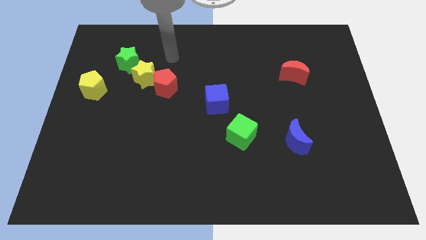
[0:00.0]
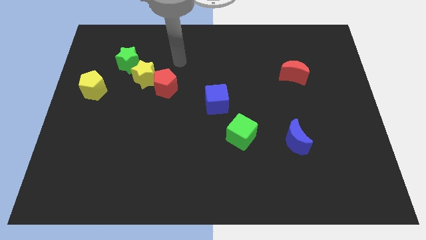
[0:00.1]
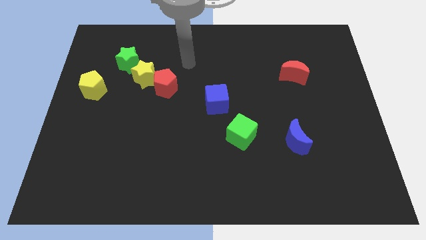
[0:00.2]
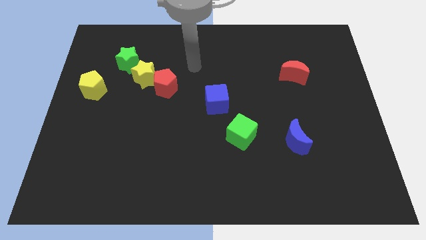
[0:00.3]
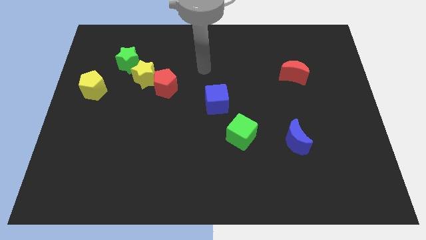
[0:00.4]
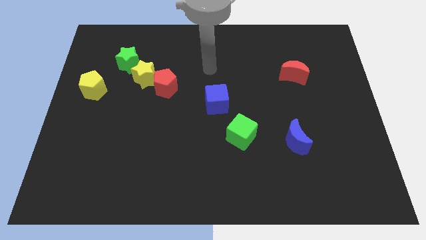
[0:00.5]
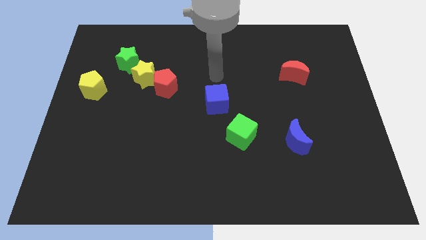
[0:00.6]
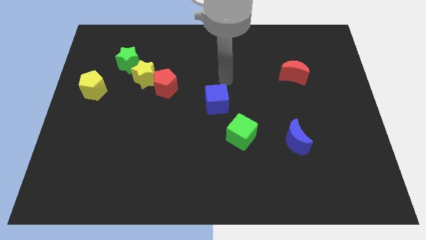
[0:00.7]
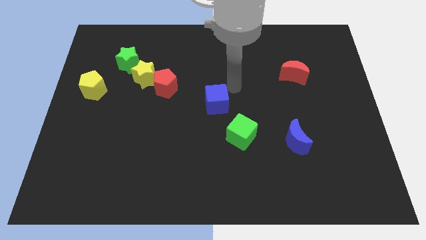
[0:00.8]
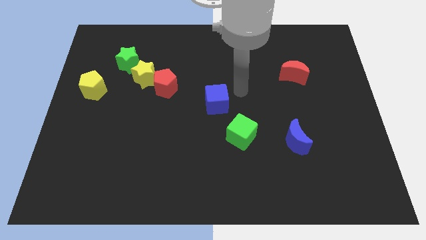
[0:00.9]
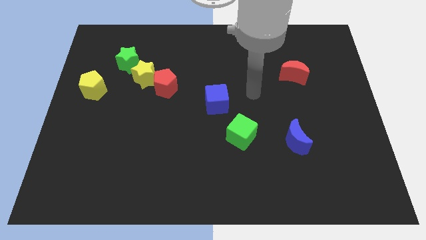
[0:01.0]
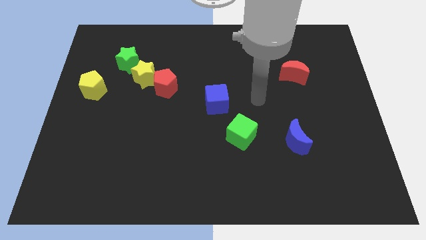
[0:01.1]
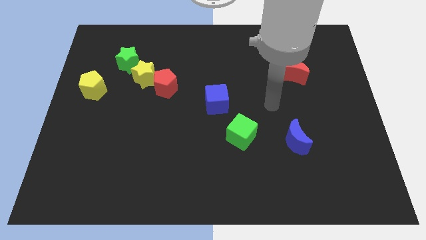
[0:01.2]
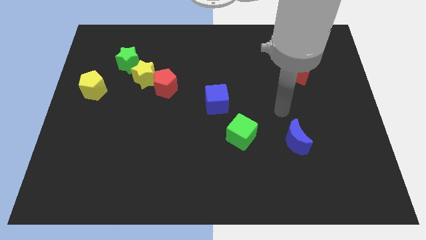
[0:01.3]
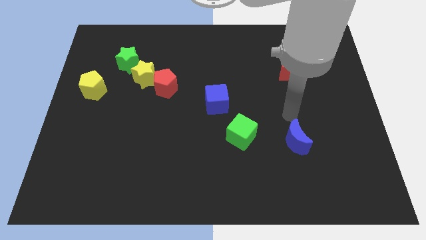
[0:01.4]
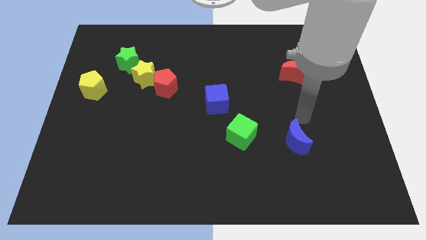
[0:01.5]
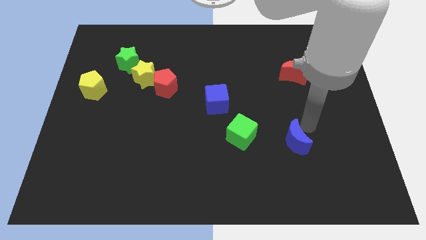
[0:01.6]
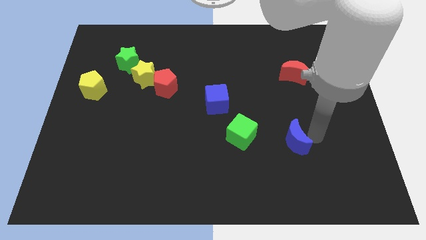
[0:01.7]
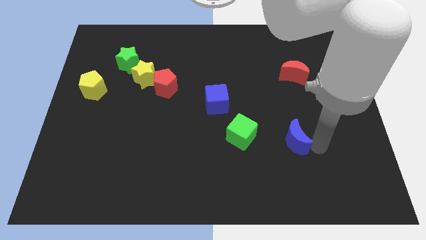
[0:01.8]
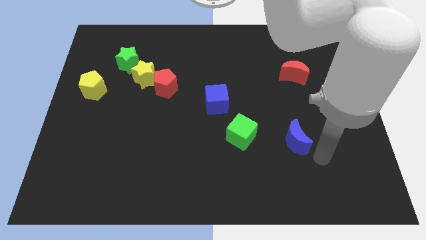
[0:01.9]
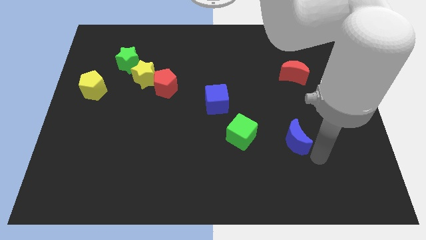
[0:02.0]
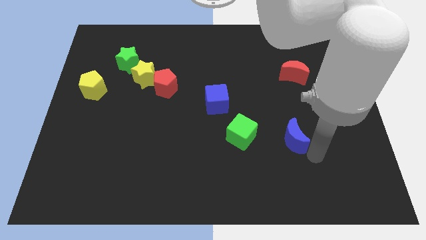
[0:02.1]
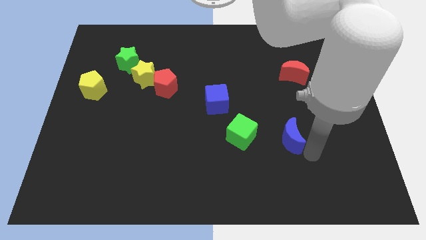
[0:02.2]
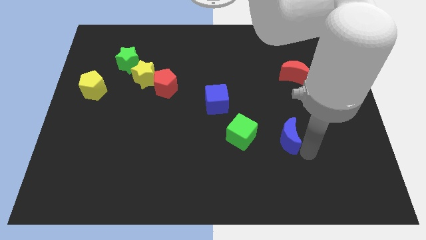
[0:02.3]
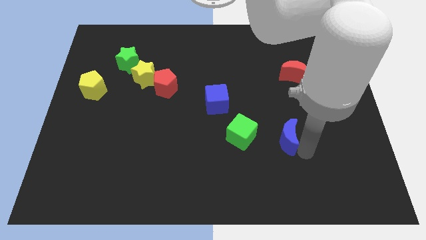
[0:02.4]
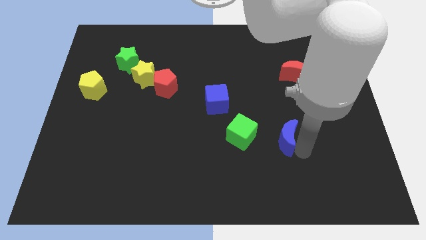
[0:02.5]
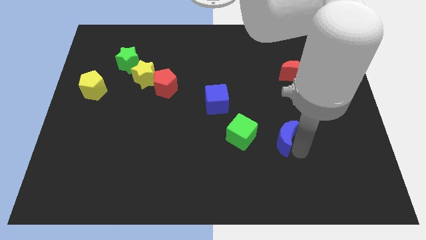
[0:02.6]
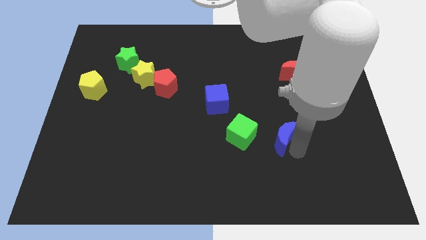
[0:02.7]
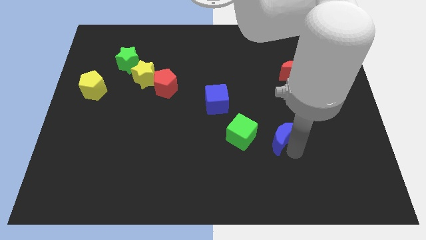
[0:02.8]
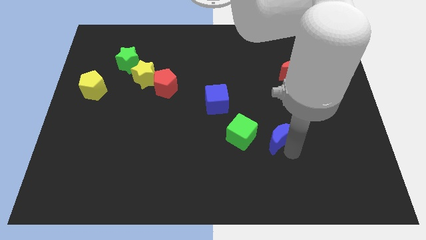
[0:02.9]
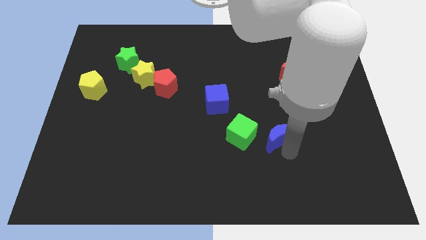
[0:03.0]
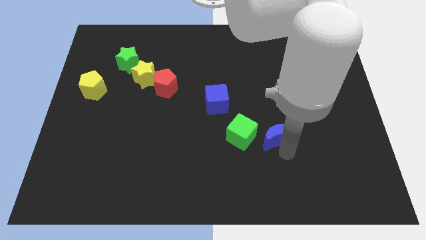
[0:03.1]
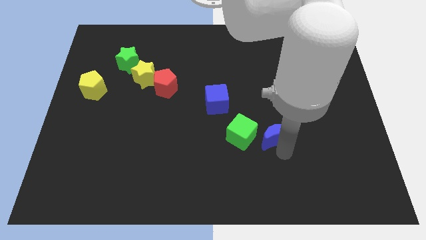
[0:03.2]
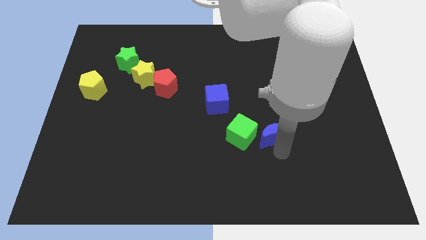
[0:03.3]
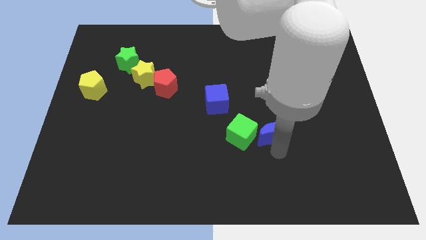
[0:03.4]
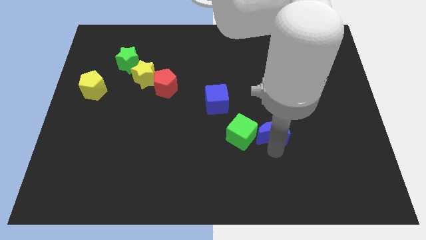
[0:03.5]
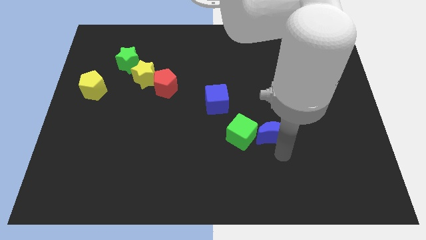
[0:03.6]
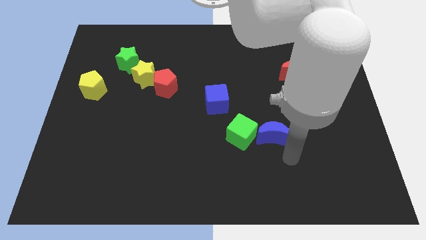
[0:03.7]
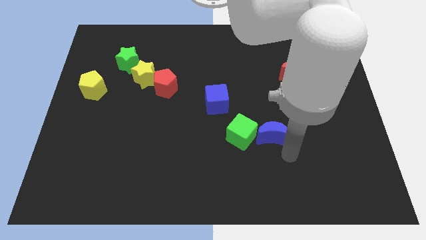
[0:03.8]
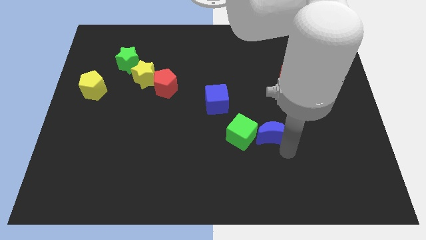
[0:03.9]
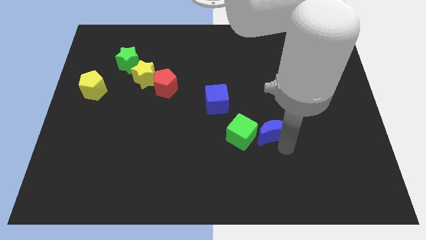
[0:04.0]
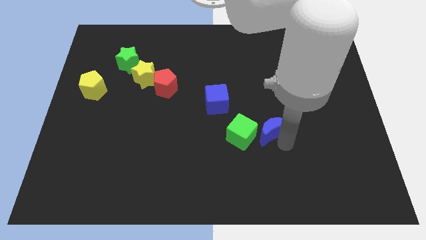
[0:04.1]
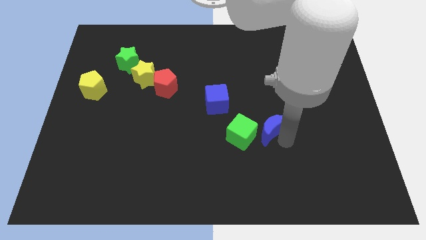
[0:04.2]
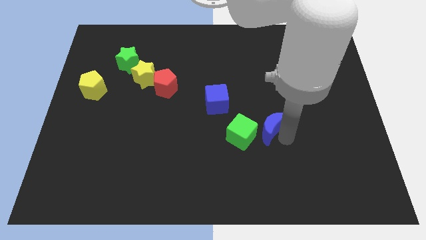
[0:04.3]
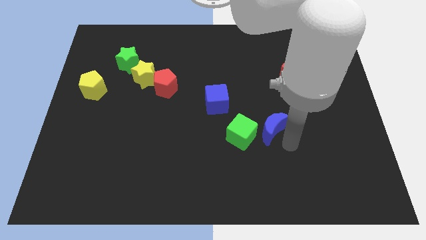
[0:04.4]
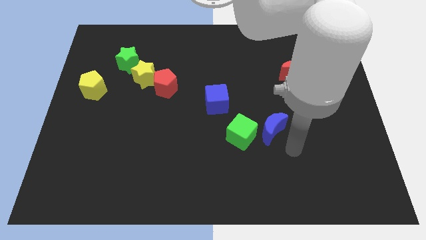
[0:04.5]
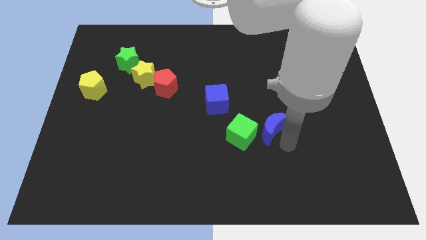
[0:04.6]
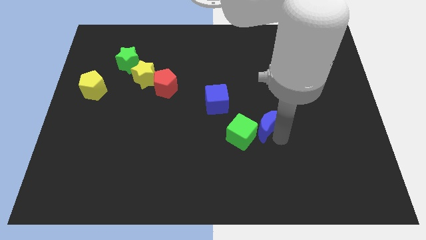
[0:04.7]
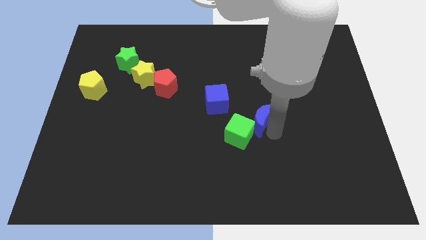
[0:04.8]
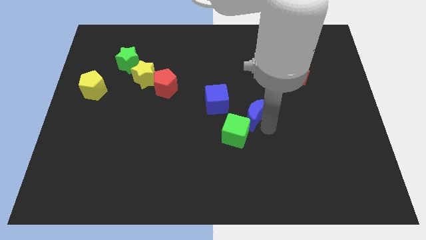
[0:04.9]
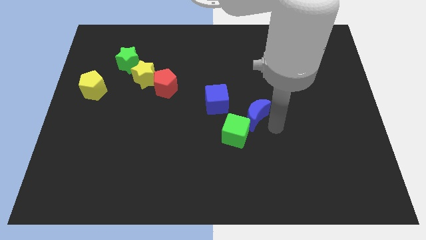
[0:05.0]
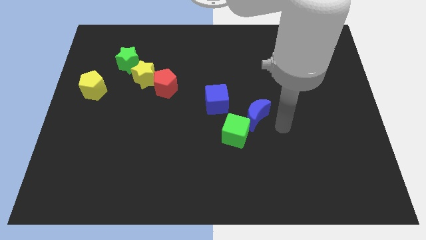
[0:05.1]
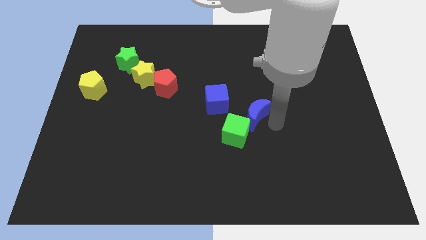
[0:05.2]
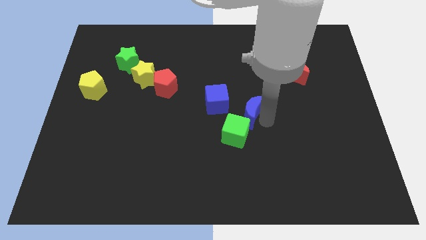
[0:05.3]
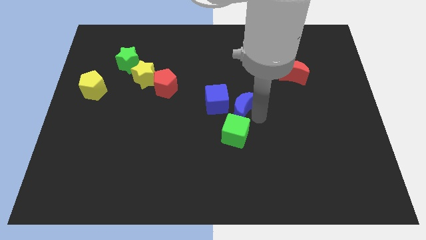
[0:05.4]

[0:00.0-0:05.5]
put the blue moon close to the blue cube

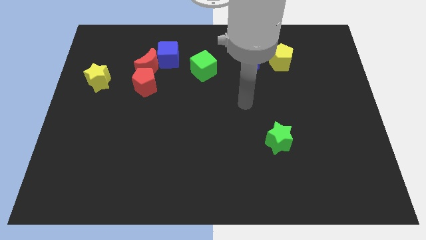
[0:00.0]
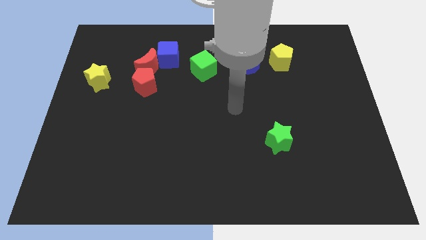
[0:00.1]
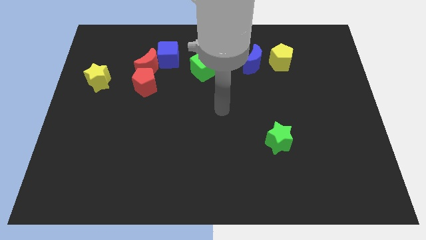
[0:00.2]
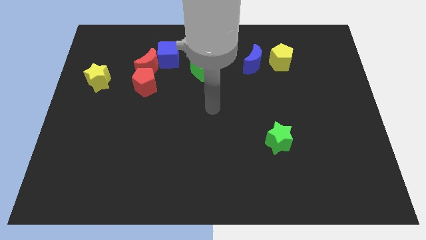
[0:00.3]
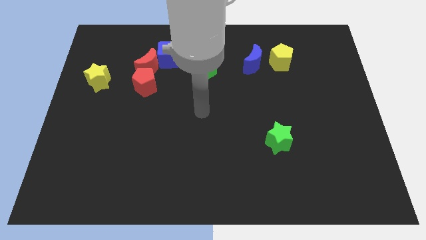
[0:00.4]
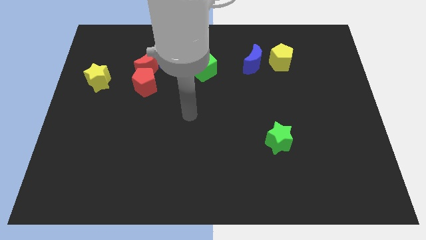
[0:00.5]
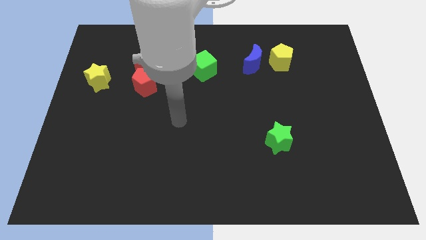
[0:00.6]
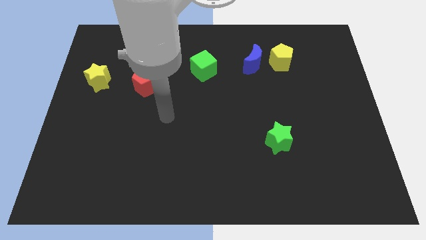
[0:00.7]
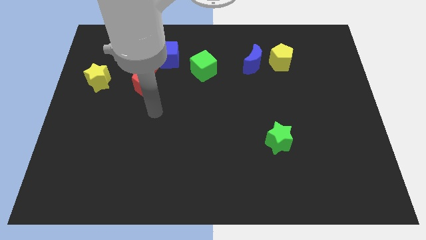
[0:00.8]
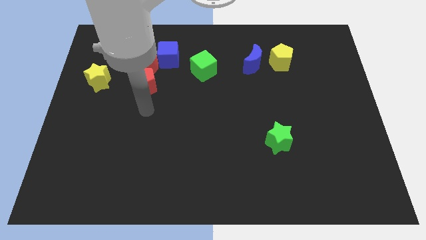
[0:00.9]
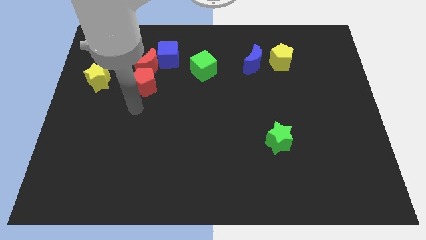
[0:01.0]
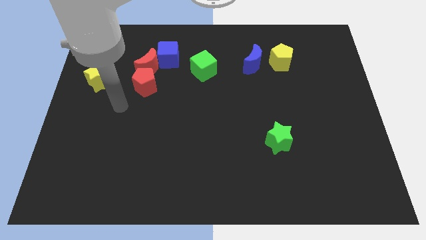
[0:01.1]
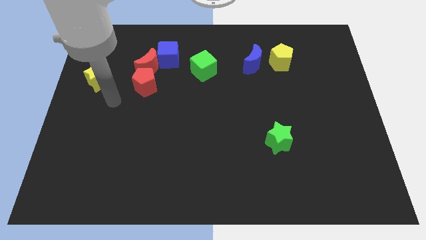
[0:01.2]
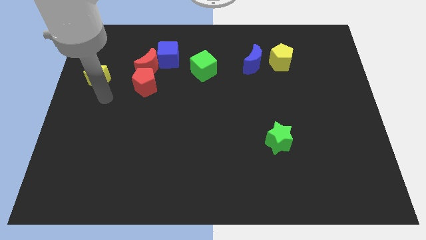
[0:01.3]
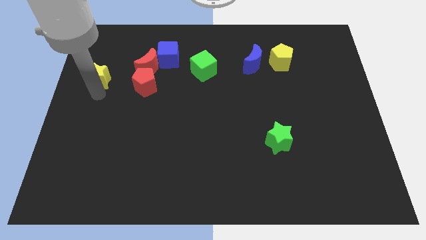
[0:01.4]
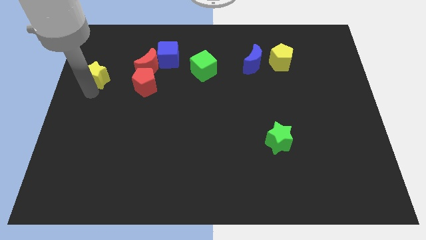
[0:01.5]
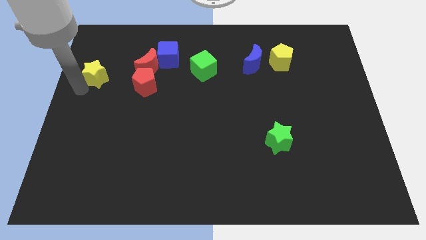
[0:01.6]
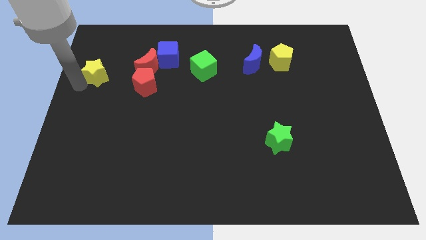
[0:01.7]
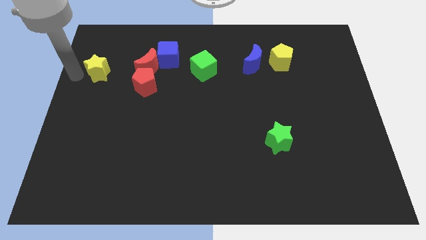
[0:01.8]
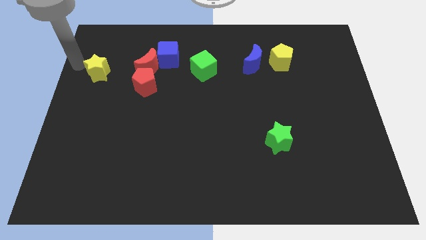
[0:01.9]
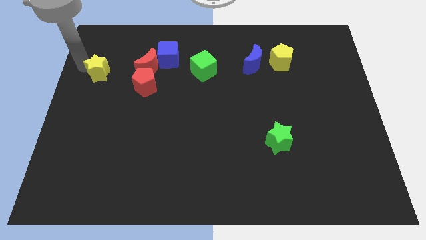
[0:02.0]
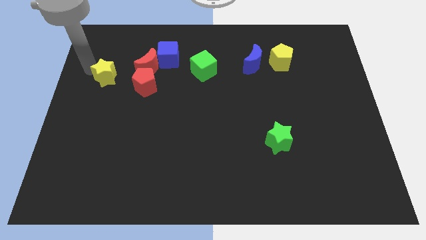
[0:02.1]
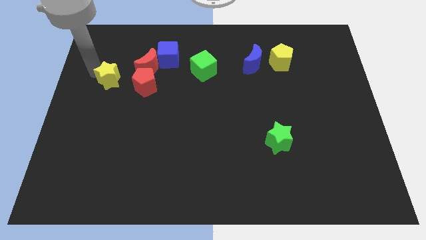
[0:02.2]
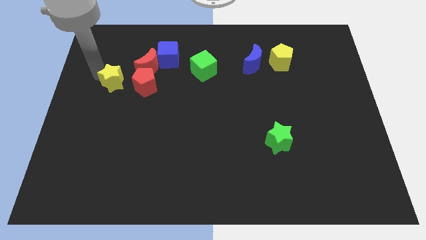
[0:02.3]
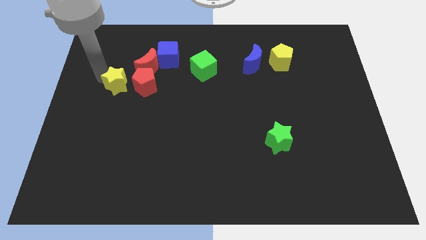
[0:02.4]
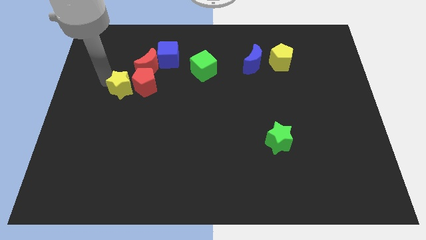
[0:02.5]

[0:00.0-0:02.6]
push the yellow star next to the red pentagon
